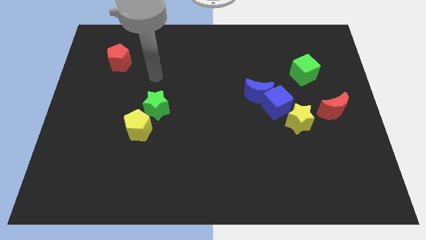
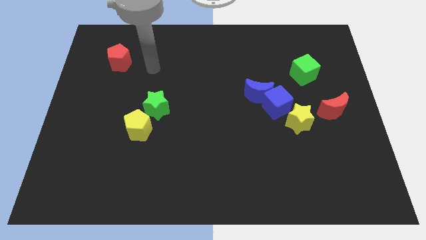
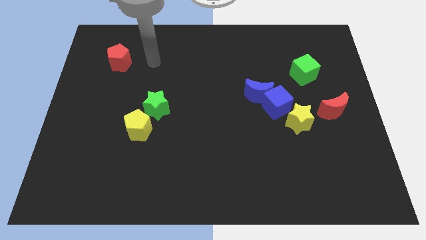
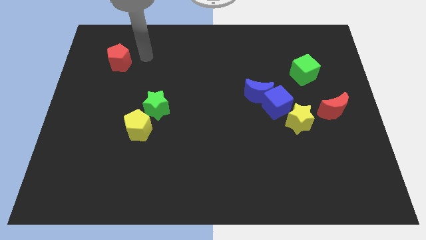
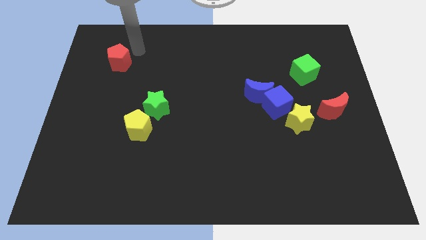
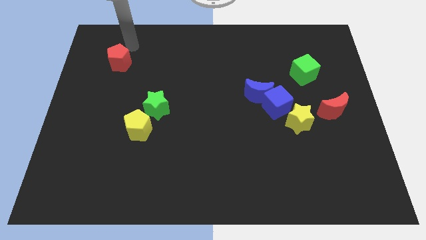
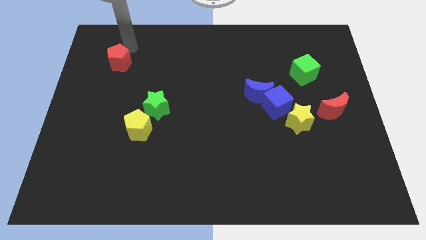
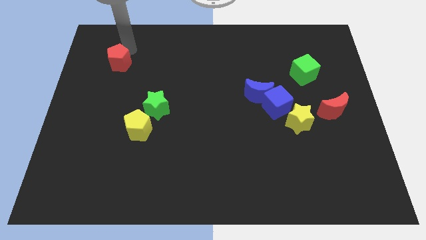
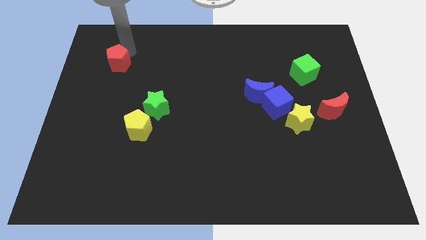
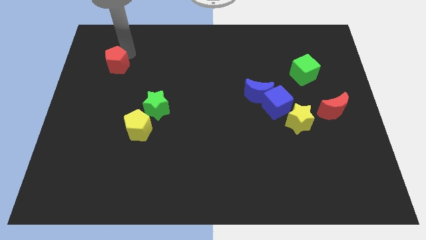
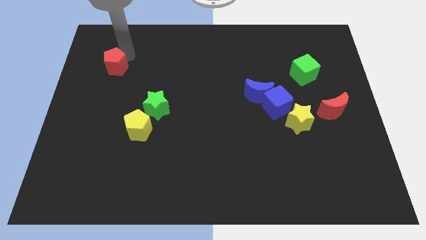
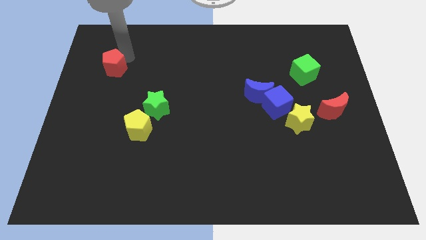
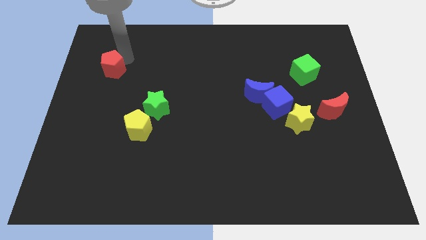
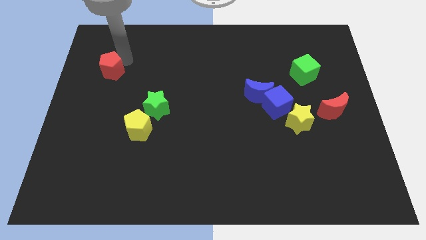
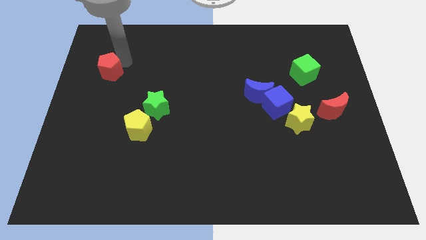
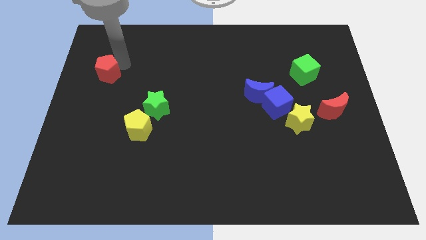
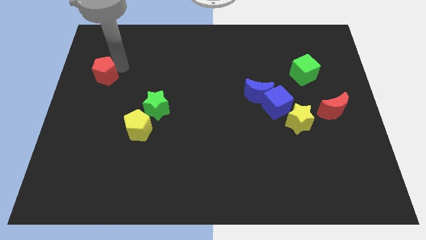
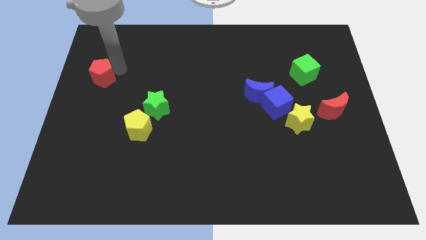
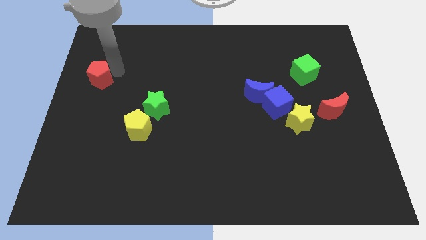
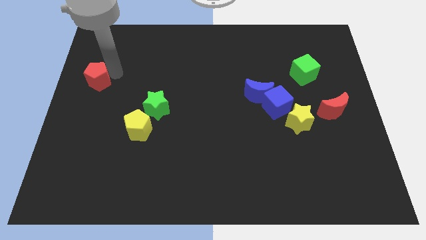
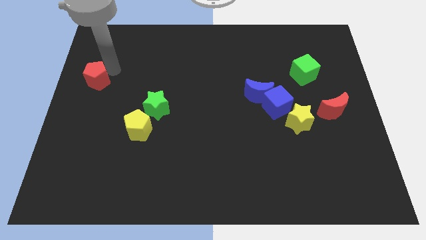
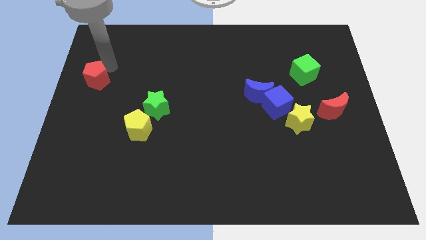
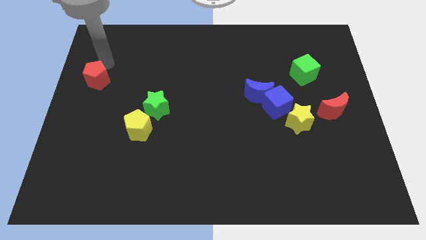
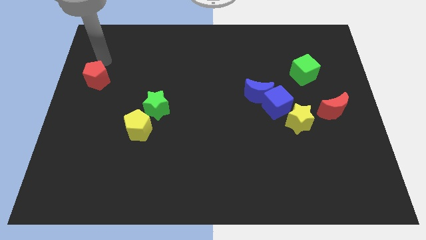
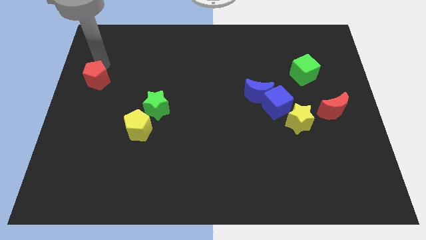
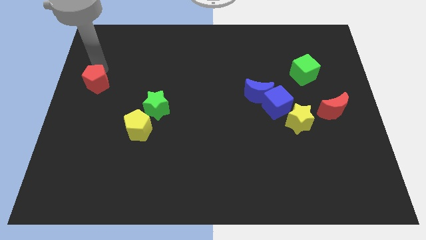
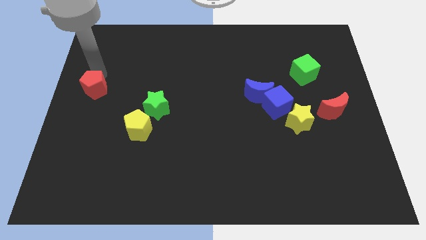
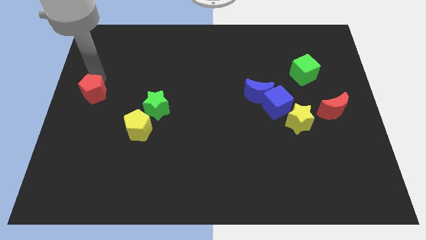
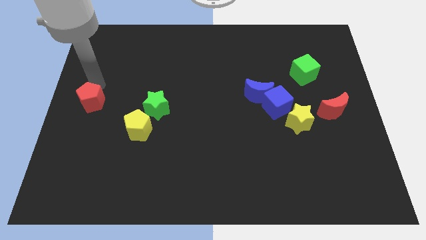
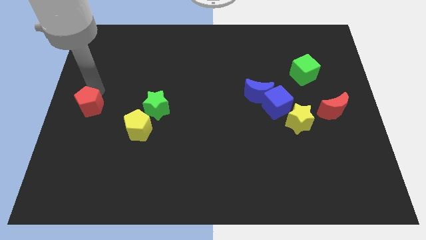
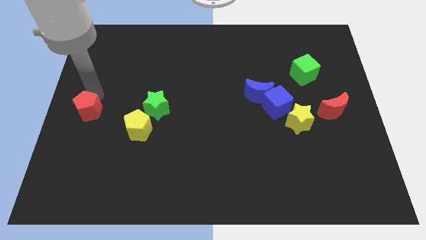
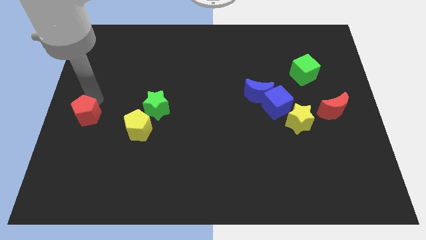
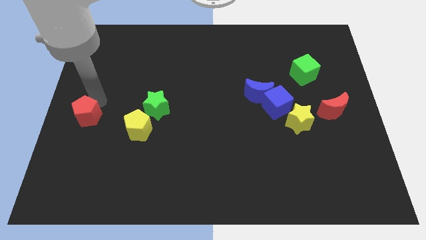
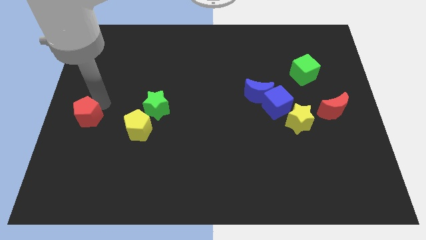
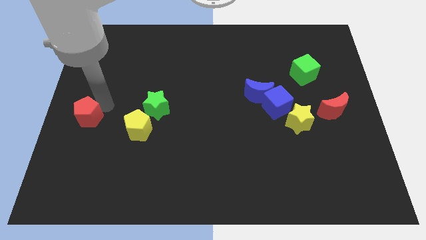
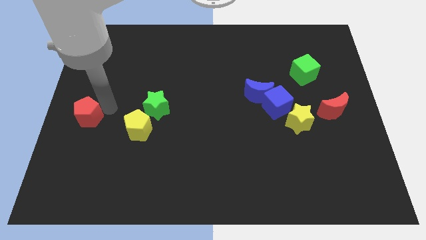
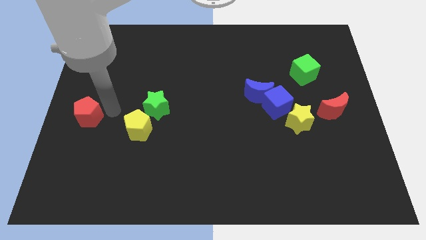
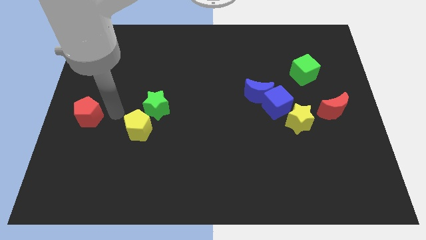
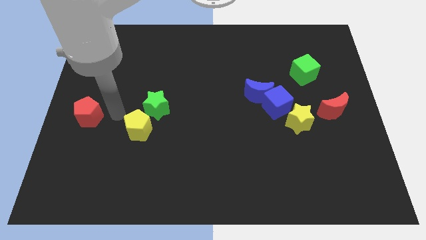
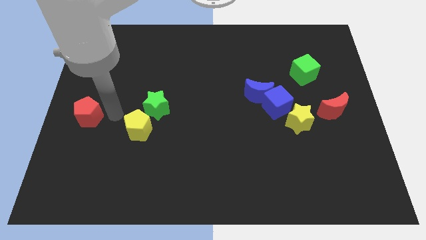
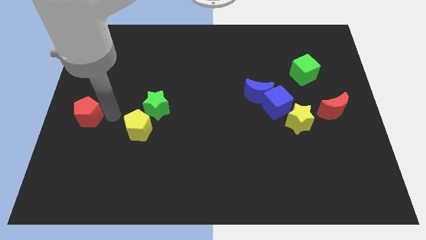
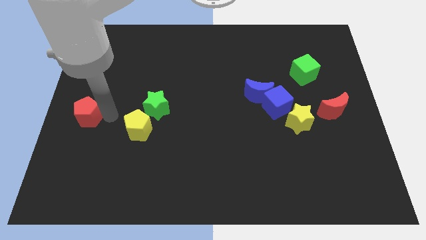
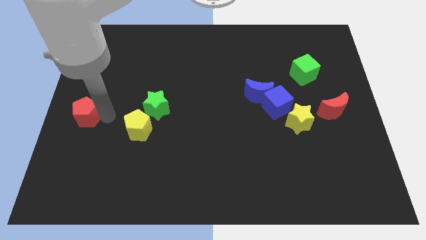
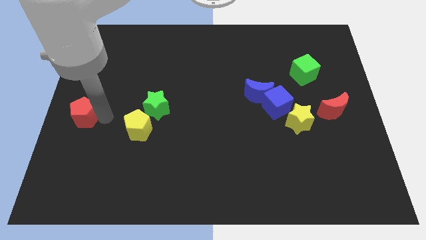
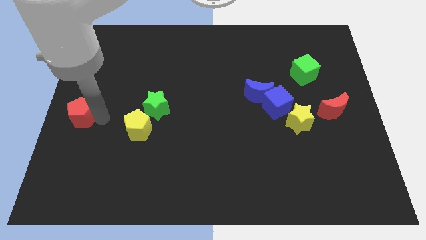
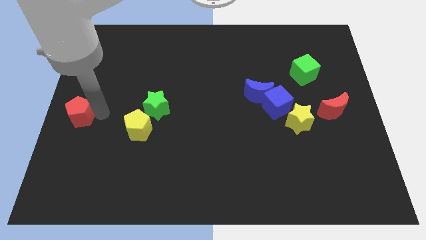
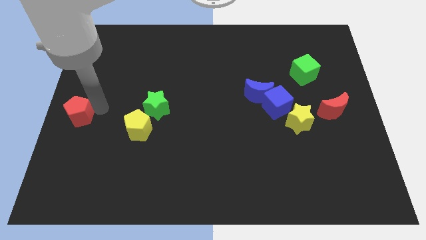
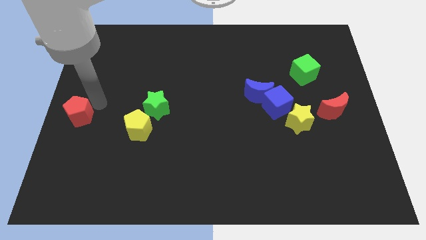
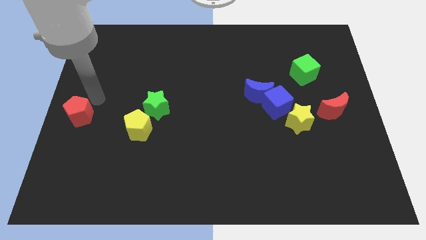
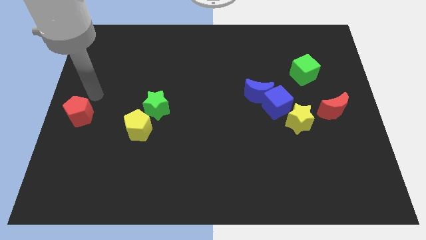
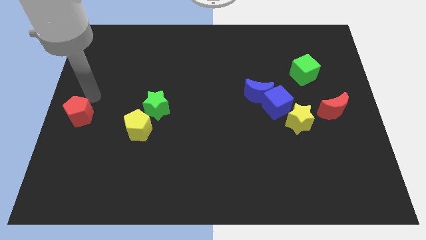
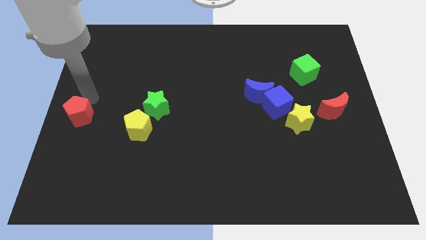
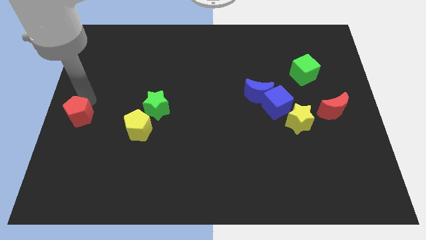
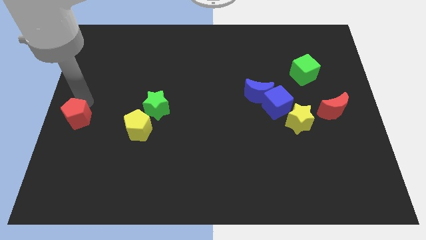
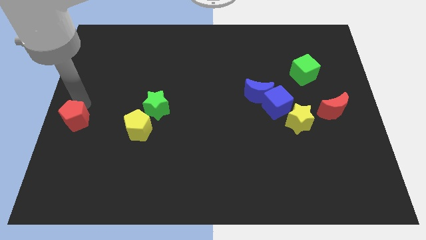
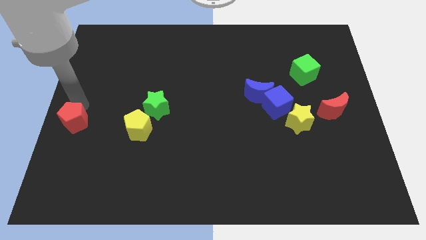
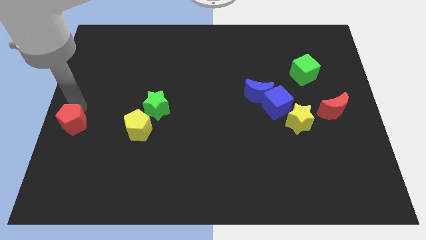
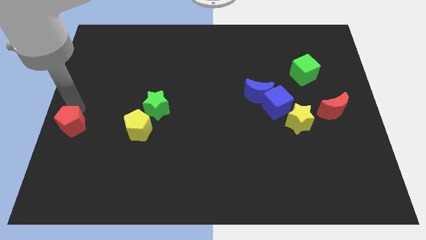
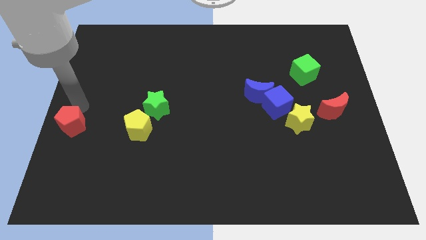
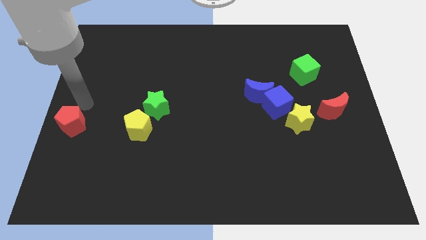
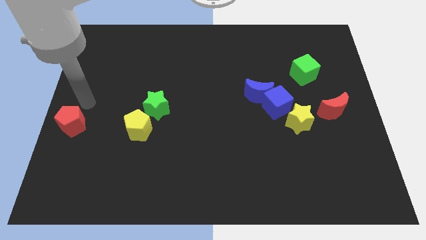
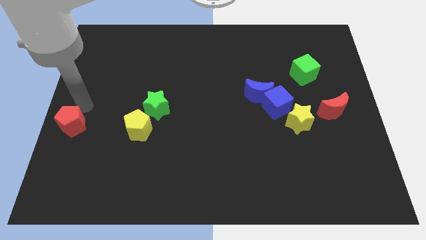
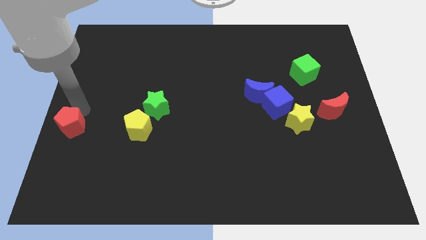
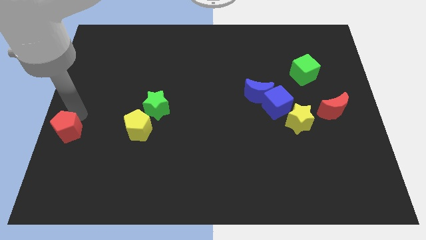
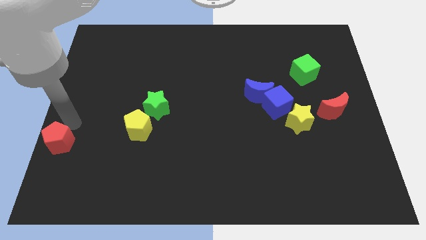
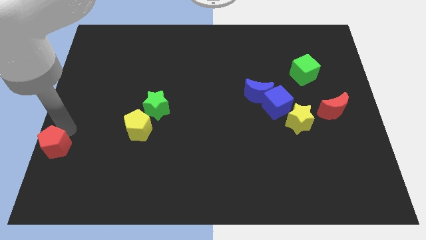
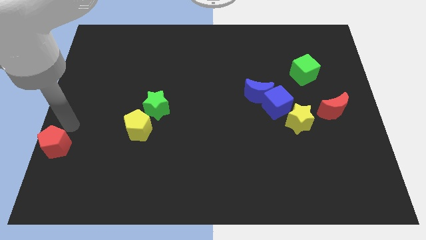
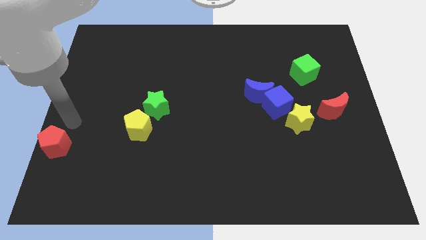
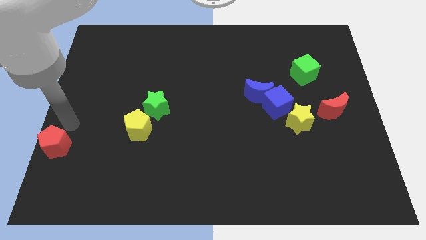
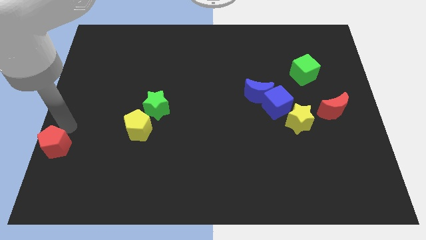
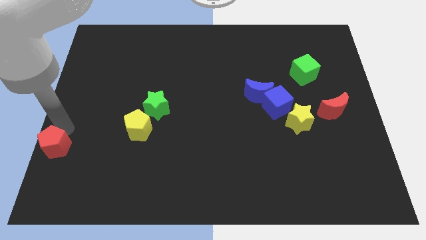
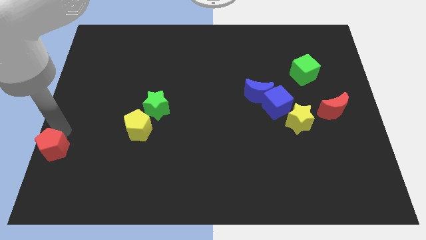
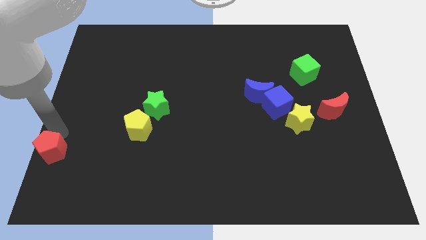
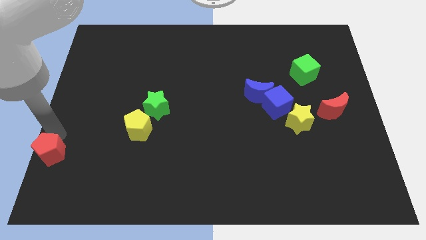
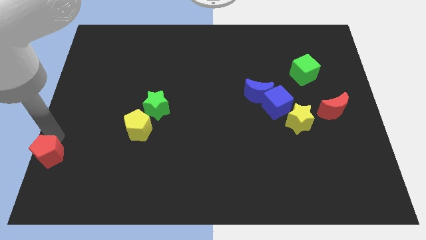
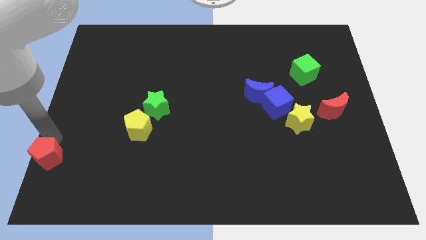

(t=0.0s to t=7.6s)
move the red pentagon to the bottom left corner

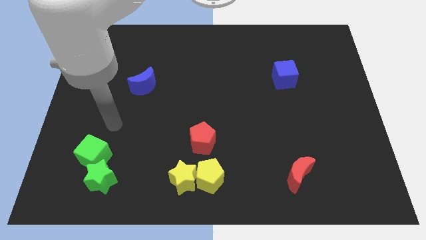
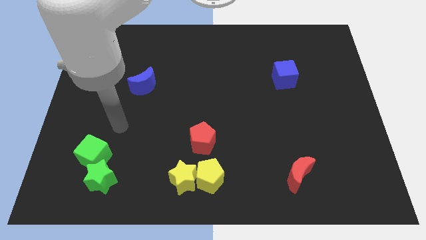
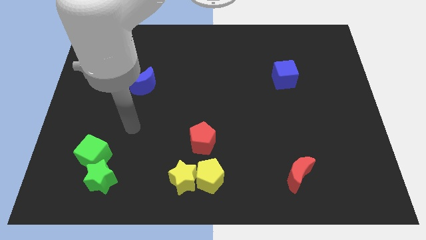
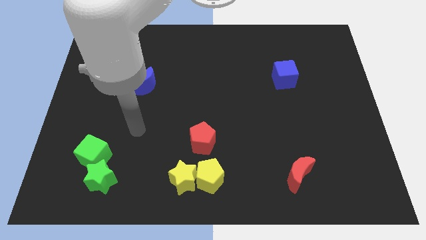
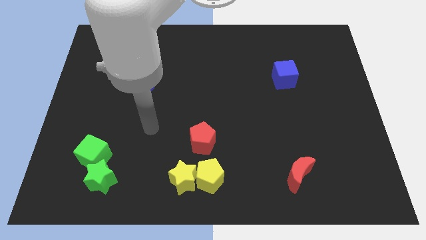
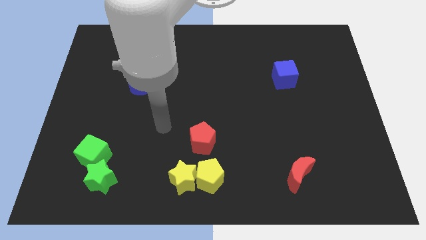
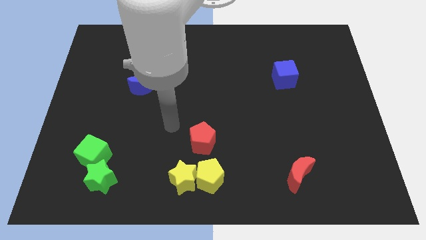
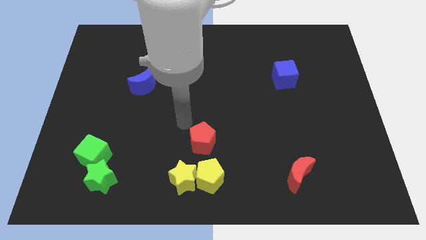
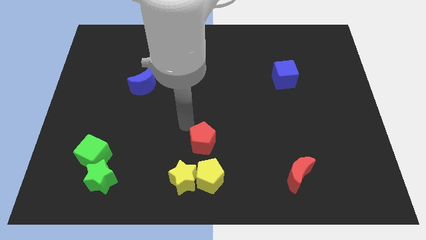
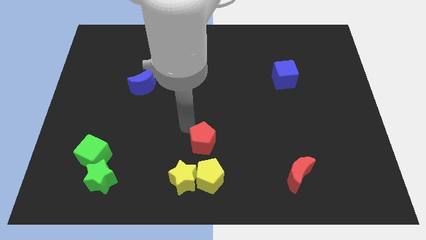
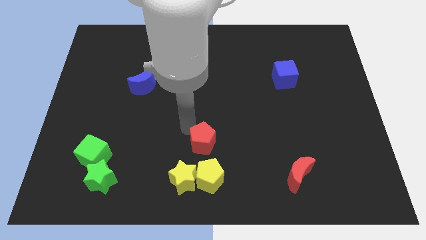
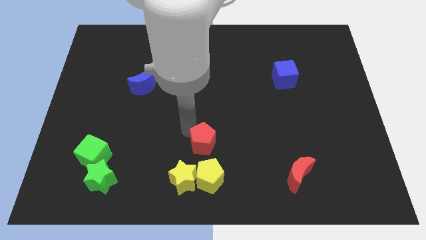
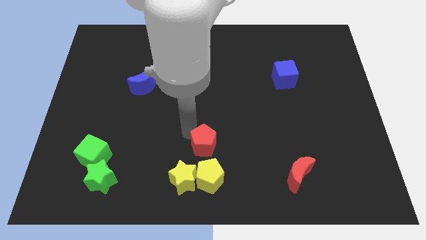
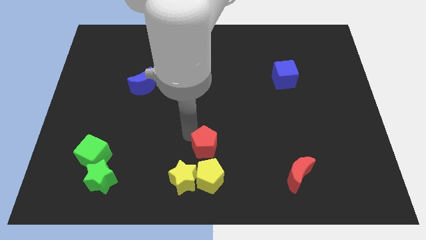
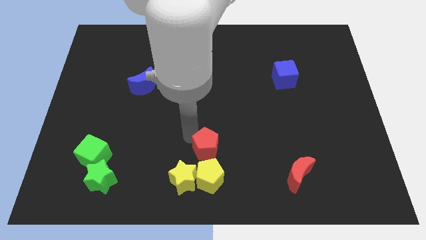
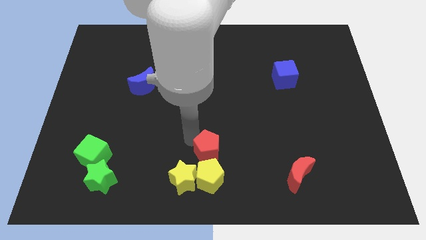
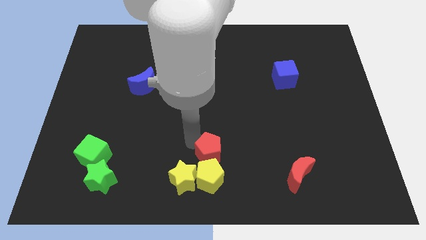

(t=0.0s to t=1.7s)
slide the red pentagon to the bottom
